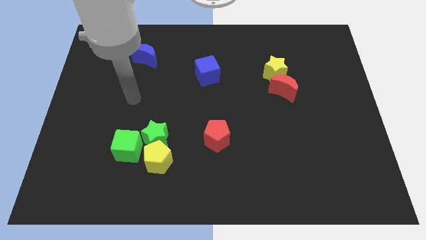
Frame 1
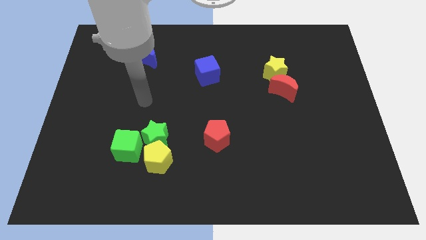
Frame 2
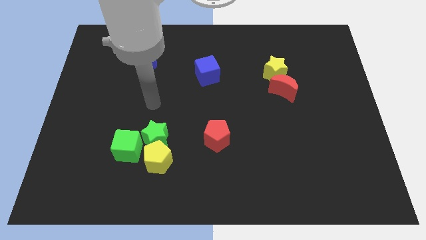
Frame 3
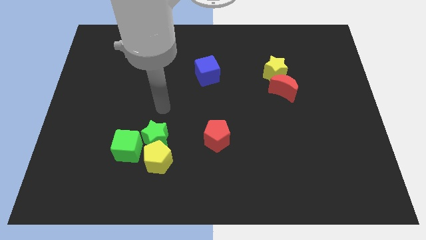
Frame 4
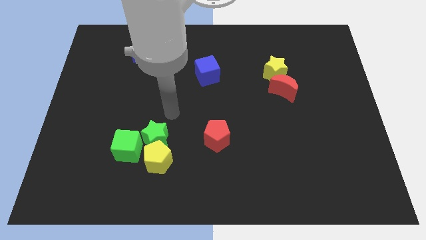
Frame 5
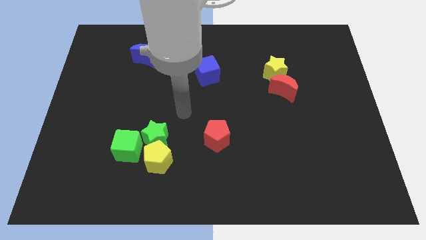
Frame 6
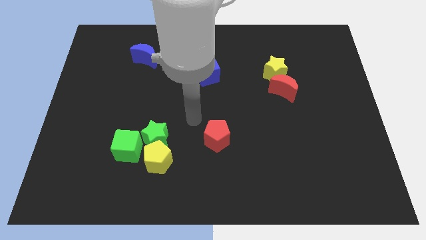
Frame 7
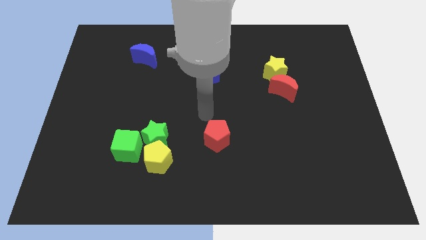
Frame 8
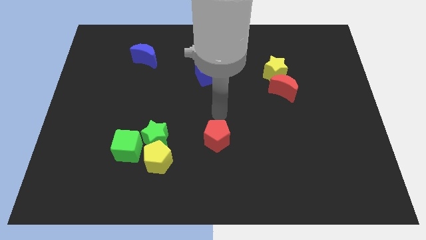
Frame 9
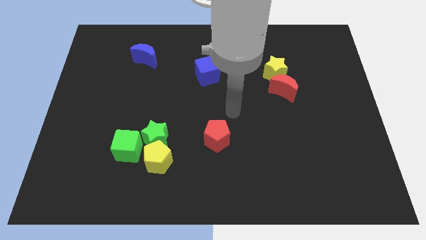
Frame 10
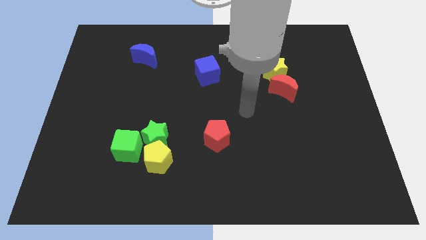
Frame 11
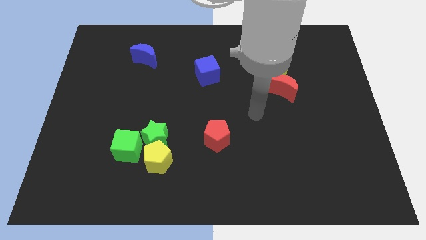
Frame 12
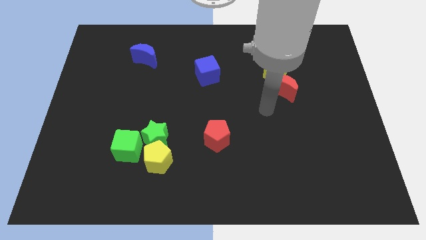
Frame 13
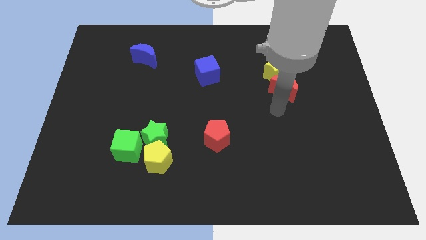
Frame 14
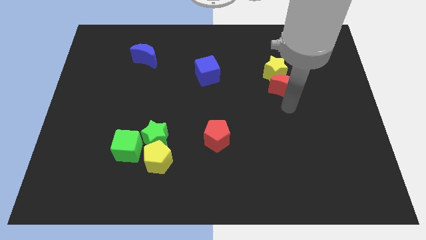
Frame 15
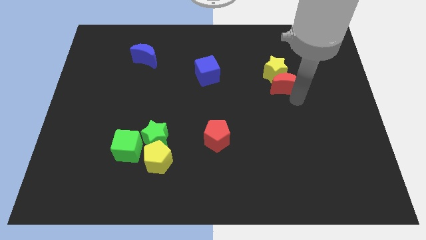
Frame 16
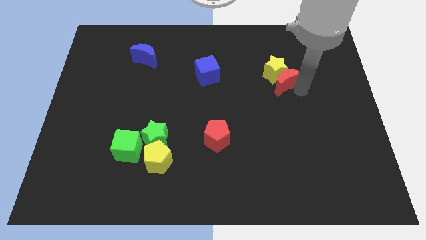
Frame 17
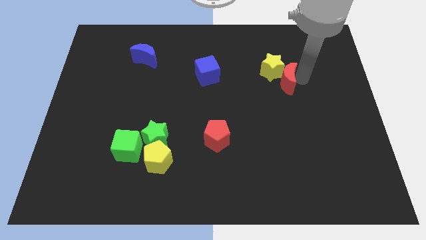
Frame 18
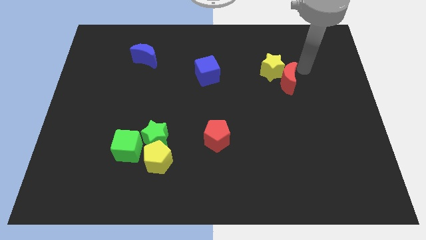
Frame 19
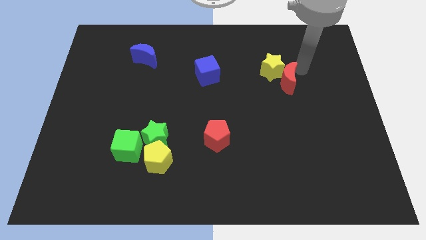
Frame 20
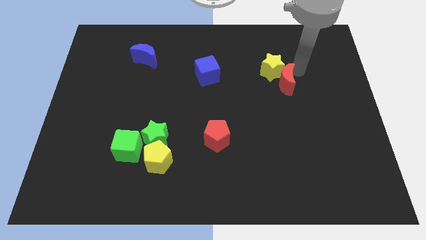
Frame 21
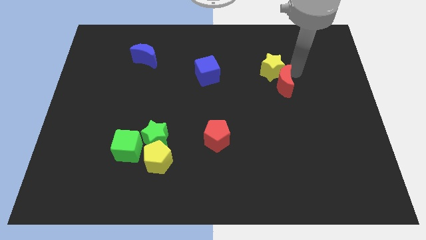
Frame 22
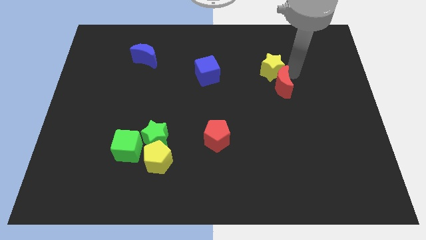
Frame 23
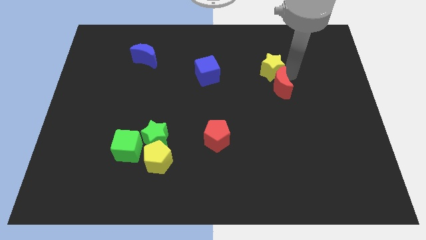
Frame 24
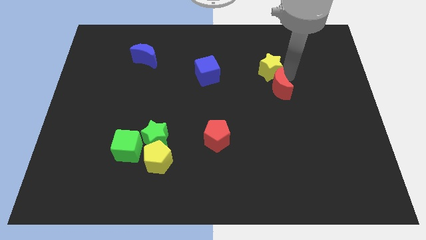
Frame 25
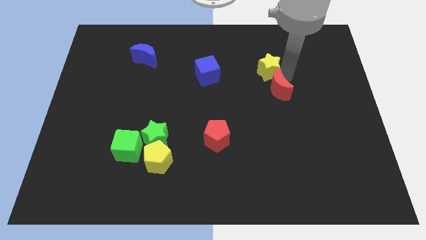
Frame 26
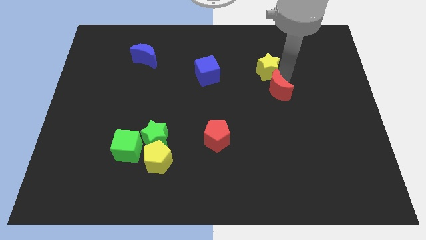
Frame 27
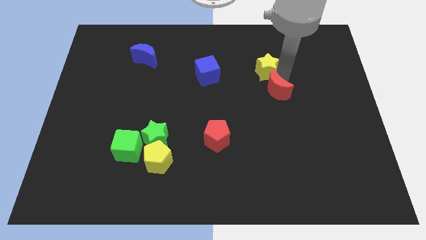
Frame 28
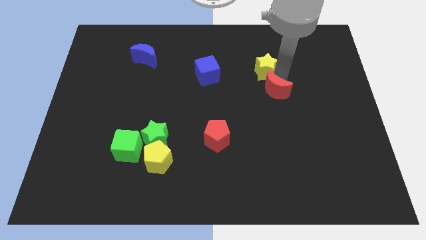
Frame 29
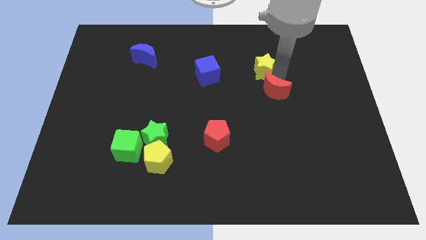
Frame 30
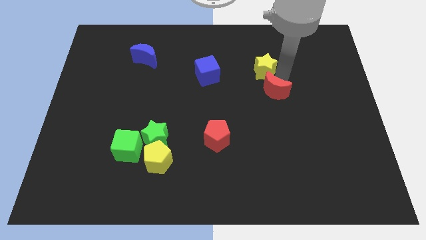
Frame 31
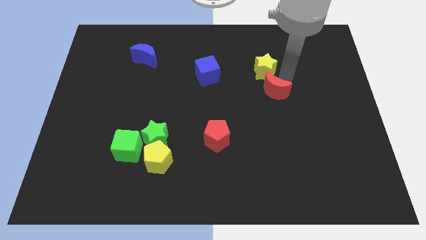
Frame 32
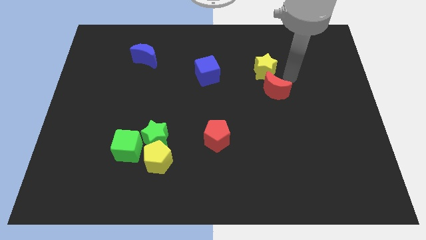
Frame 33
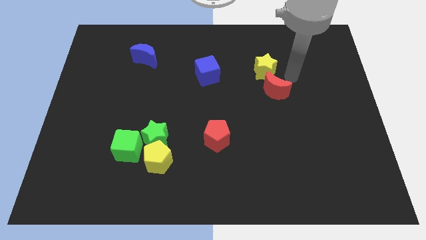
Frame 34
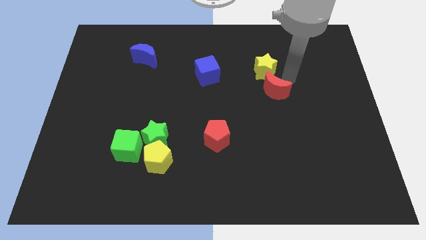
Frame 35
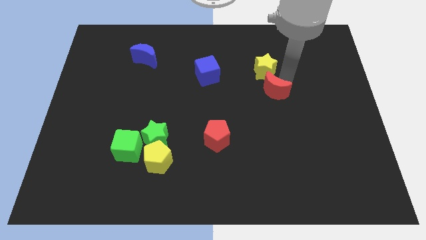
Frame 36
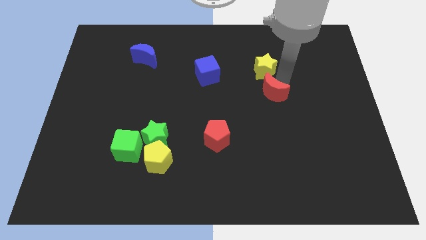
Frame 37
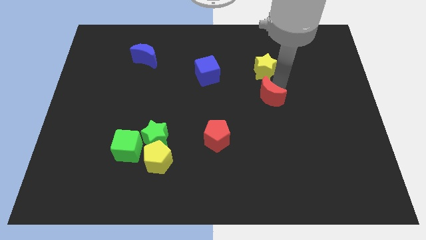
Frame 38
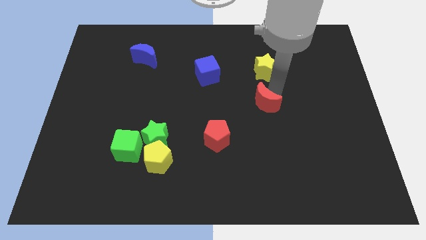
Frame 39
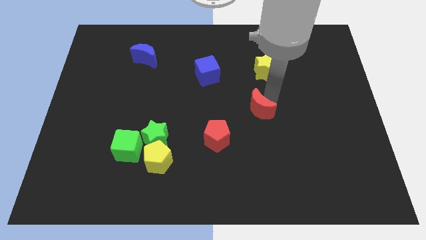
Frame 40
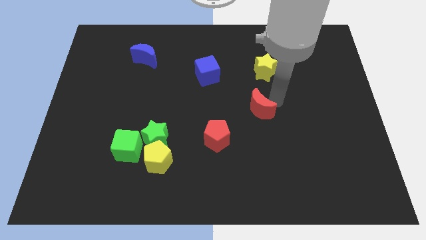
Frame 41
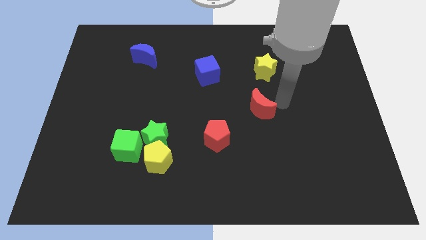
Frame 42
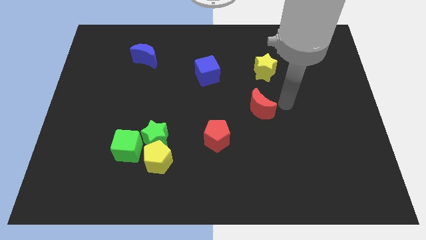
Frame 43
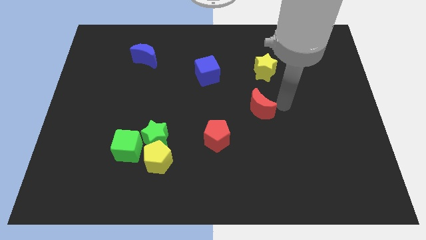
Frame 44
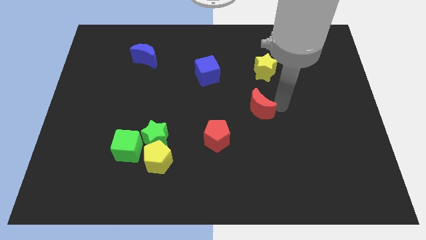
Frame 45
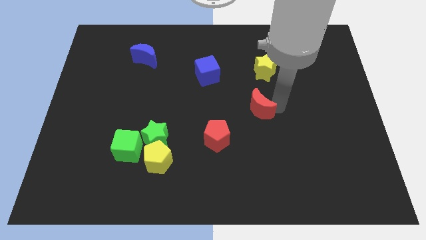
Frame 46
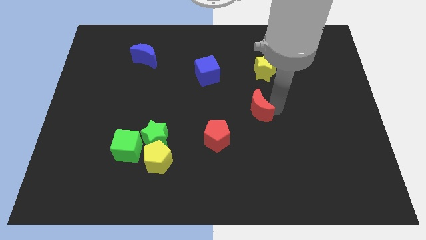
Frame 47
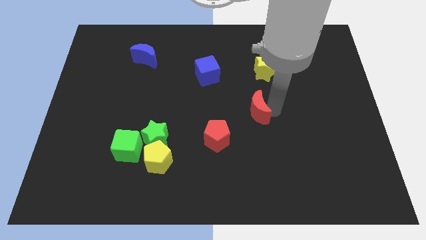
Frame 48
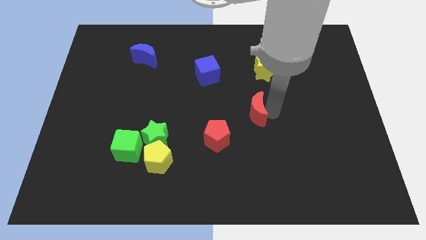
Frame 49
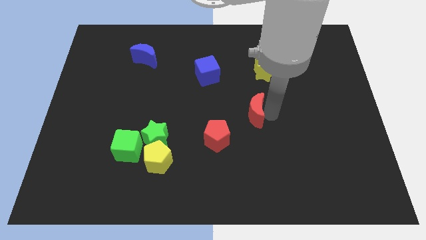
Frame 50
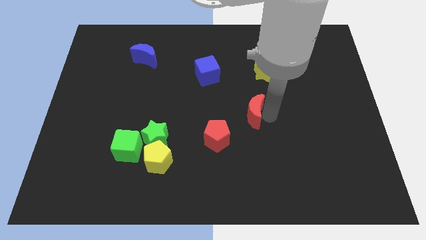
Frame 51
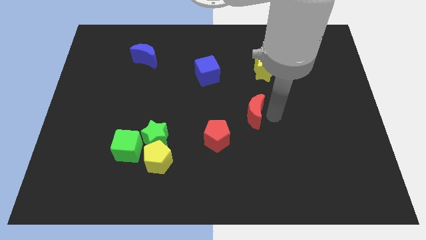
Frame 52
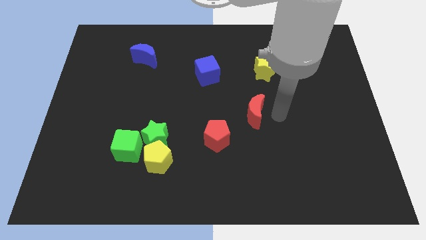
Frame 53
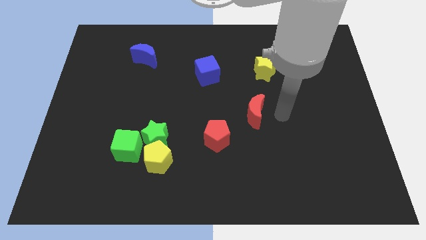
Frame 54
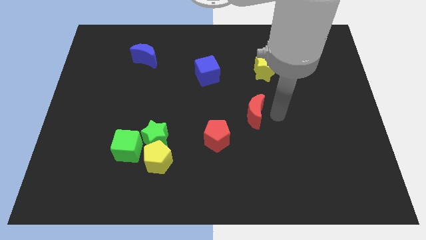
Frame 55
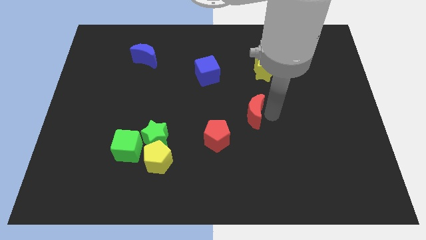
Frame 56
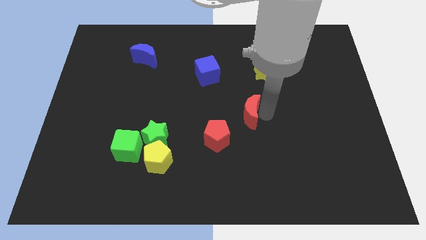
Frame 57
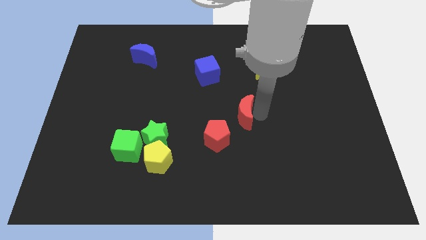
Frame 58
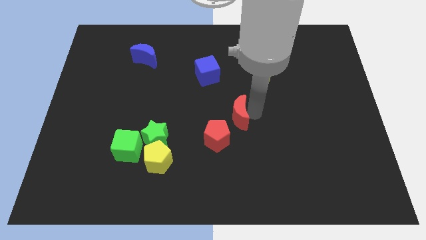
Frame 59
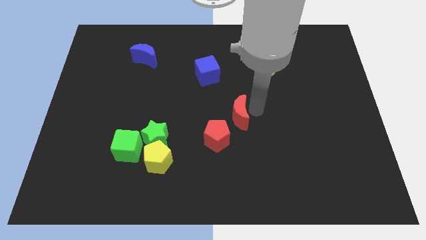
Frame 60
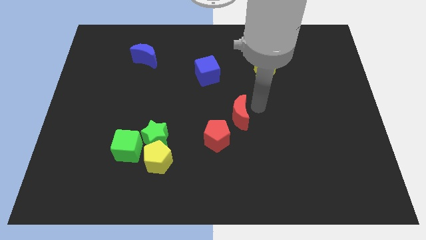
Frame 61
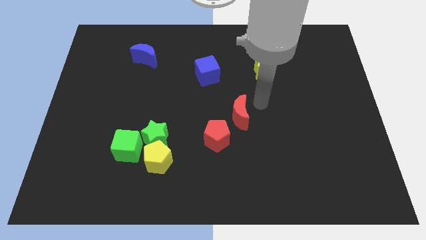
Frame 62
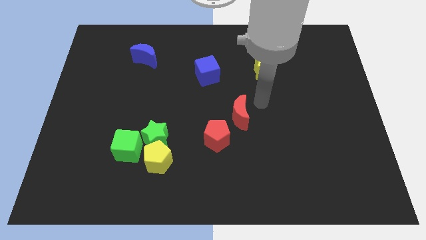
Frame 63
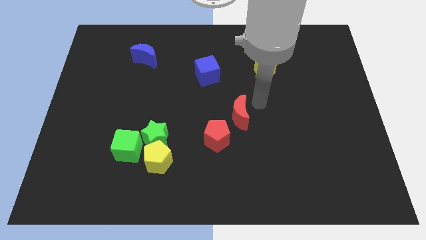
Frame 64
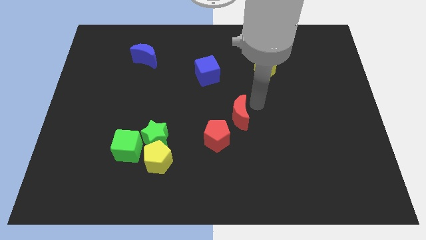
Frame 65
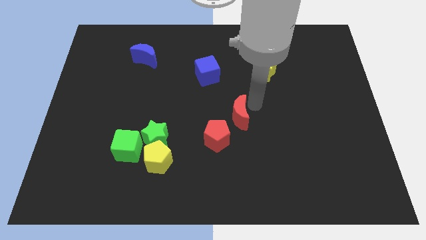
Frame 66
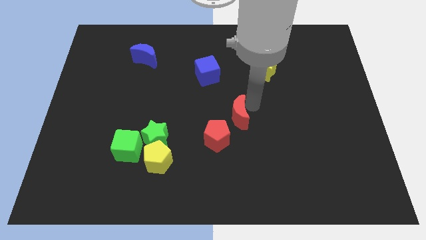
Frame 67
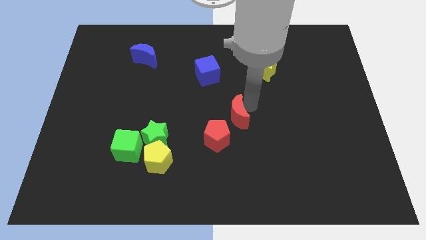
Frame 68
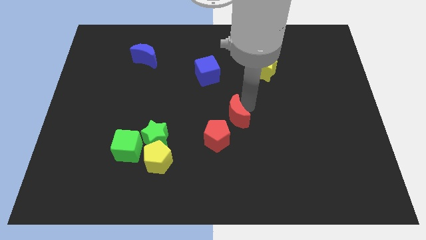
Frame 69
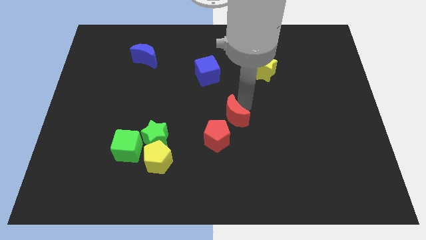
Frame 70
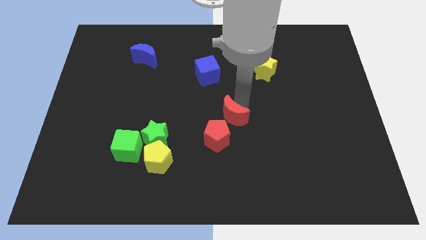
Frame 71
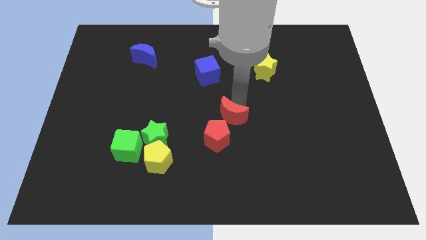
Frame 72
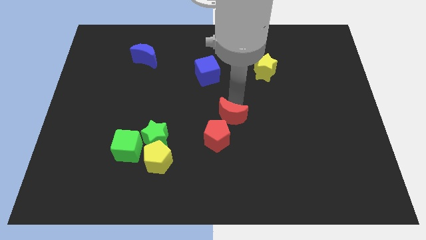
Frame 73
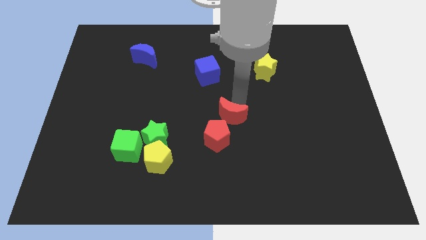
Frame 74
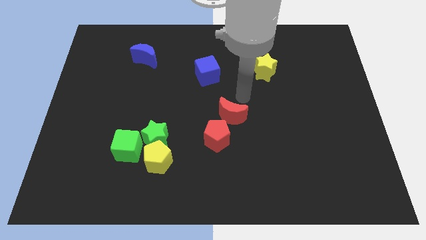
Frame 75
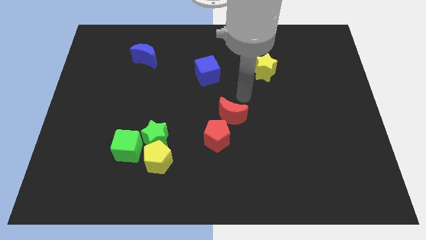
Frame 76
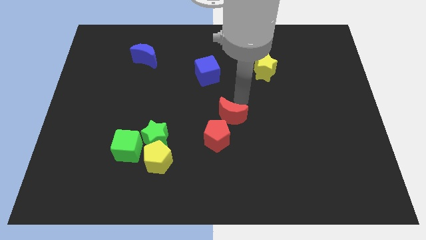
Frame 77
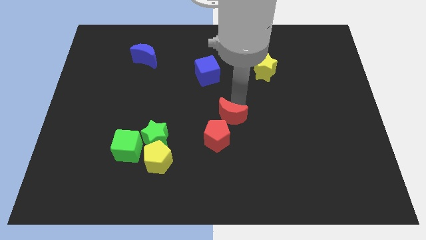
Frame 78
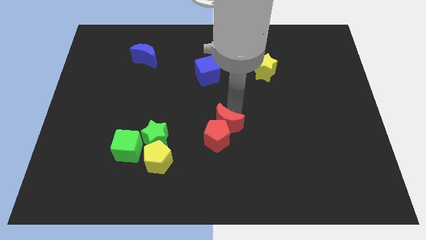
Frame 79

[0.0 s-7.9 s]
slide the red moon next to the red pentagon
